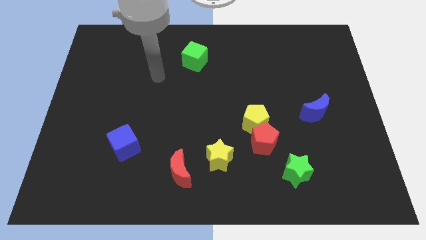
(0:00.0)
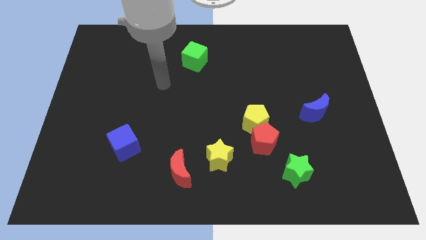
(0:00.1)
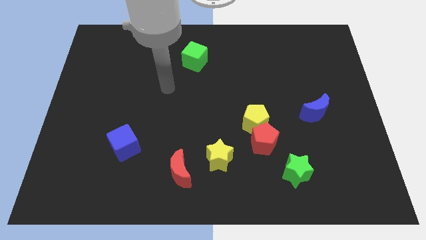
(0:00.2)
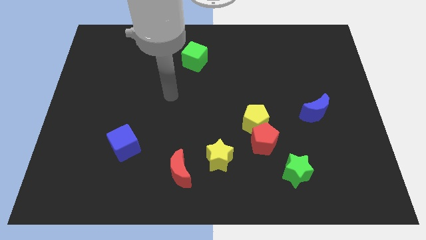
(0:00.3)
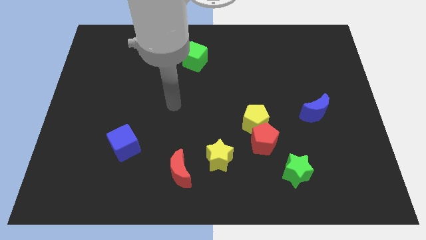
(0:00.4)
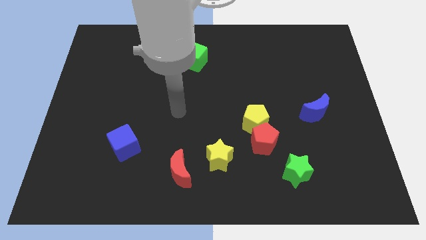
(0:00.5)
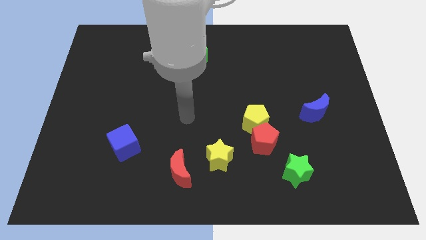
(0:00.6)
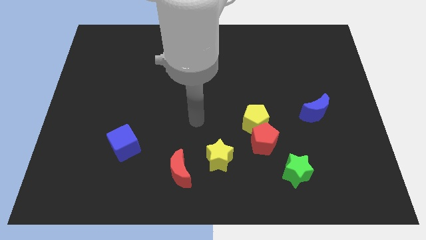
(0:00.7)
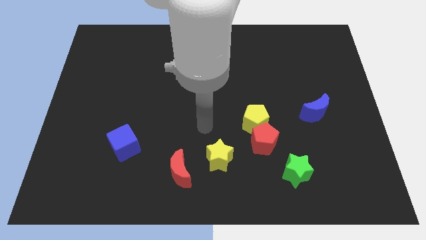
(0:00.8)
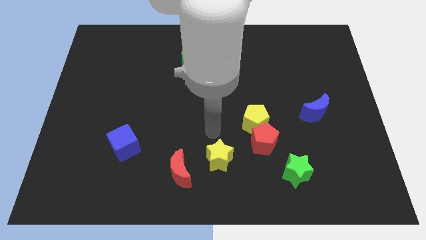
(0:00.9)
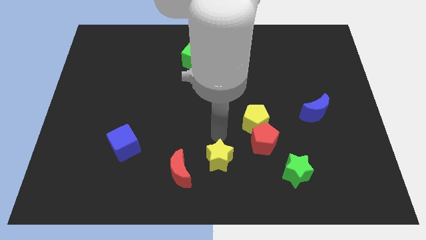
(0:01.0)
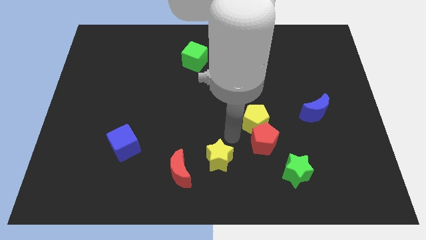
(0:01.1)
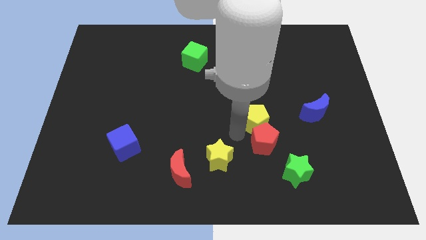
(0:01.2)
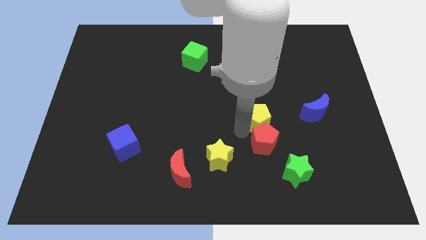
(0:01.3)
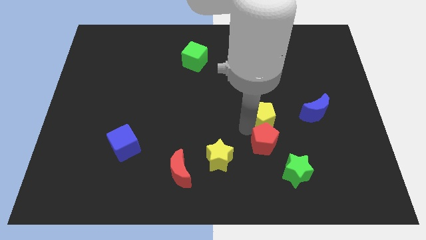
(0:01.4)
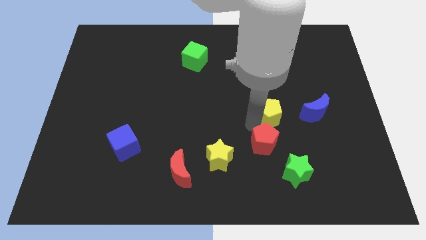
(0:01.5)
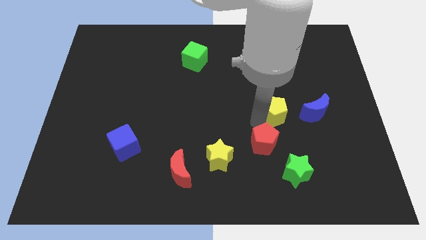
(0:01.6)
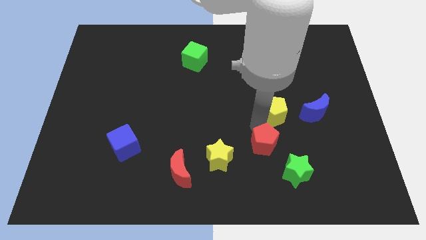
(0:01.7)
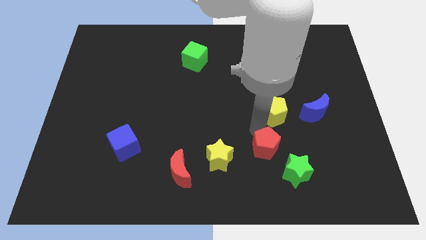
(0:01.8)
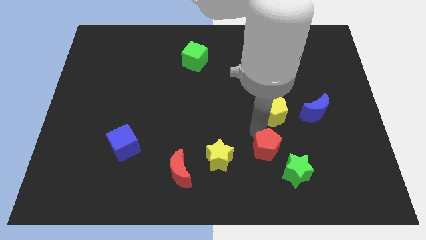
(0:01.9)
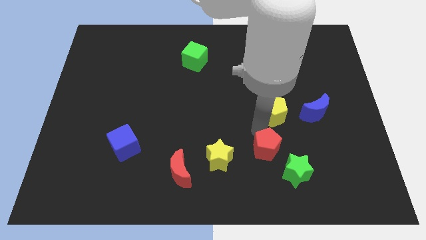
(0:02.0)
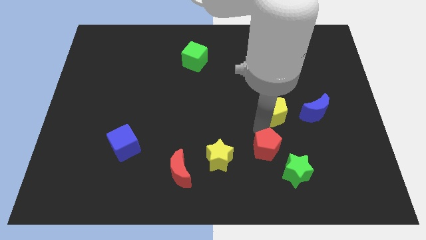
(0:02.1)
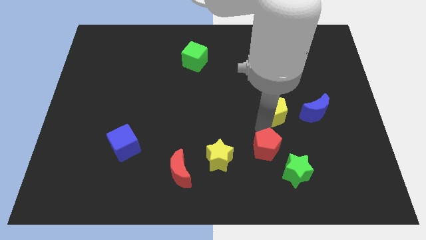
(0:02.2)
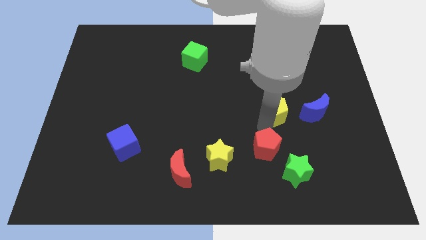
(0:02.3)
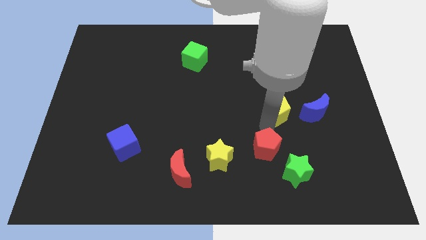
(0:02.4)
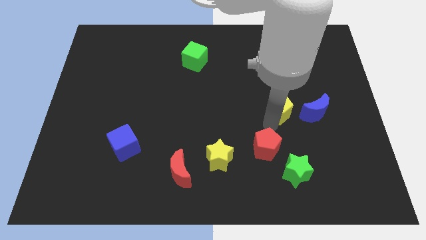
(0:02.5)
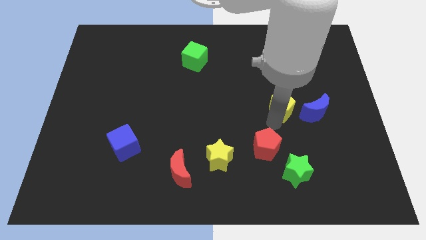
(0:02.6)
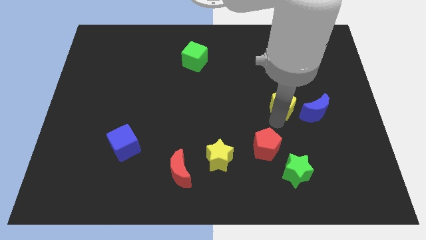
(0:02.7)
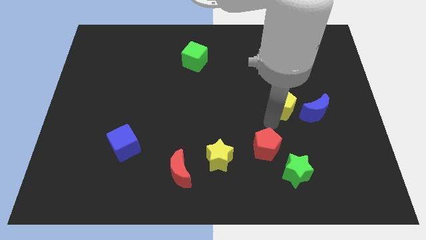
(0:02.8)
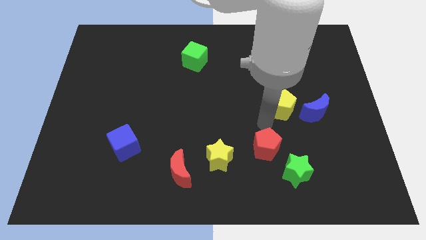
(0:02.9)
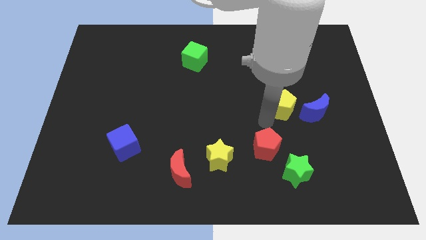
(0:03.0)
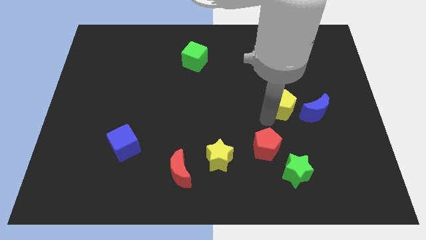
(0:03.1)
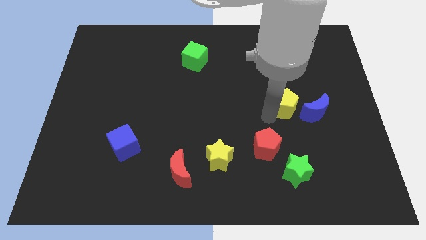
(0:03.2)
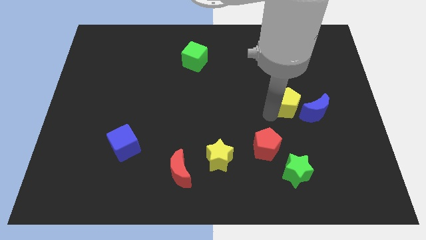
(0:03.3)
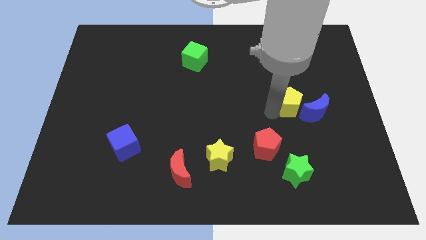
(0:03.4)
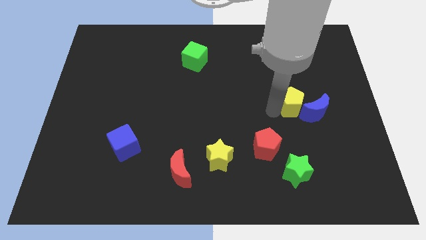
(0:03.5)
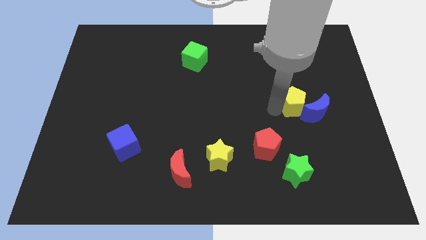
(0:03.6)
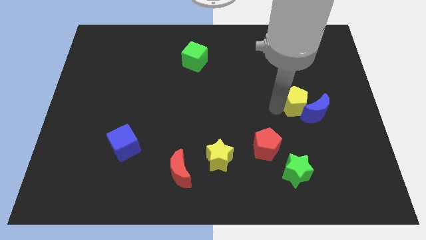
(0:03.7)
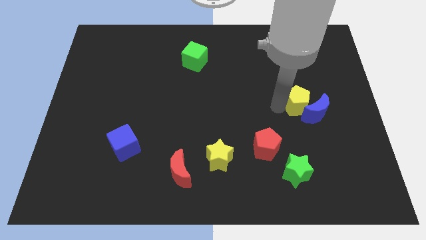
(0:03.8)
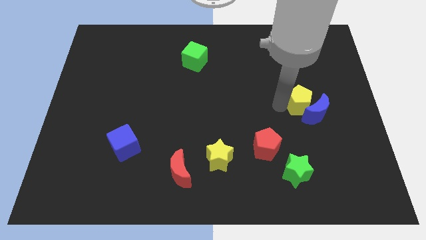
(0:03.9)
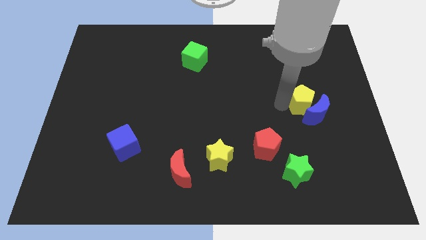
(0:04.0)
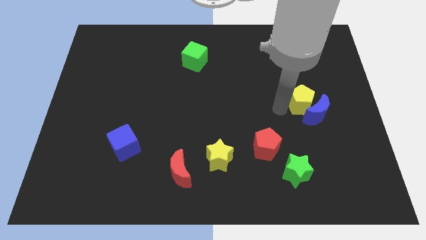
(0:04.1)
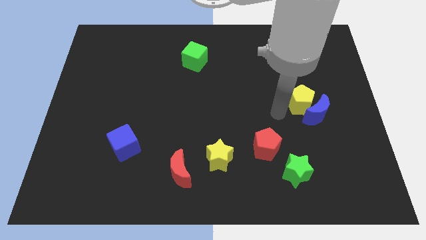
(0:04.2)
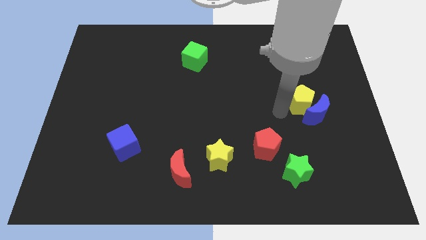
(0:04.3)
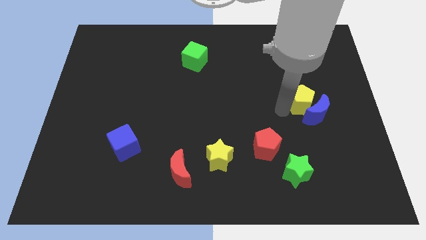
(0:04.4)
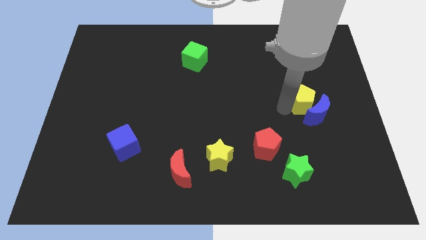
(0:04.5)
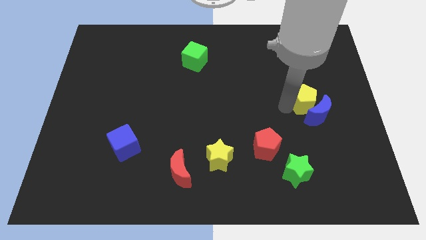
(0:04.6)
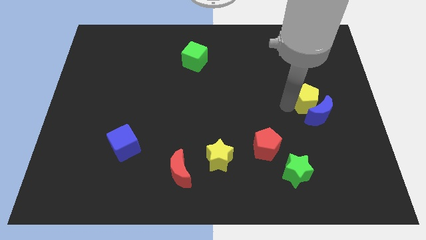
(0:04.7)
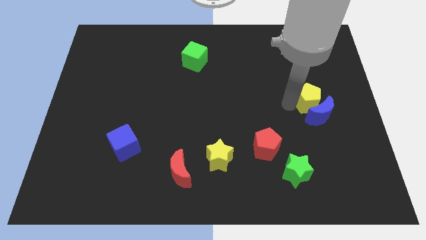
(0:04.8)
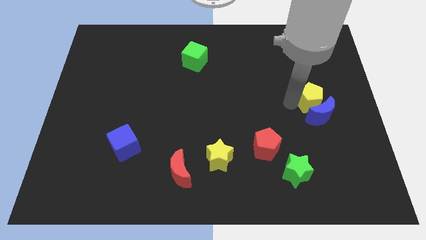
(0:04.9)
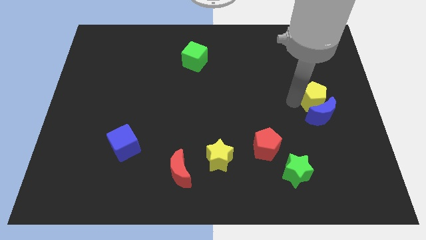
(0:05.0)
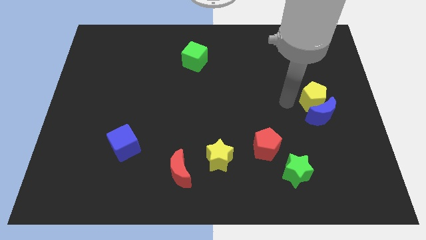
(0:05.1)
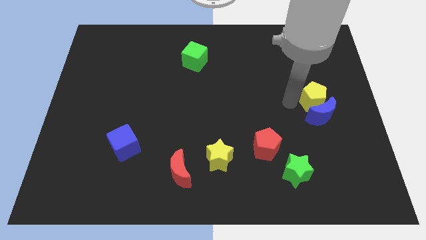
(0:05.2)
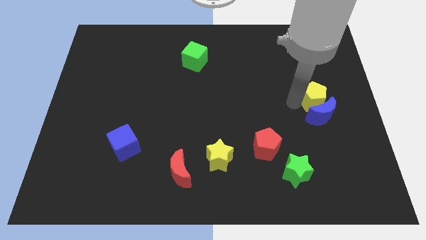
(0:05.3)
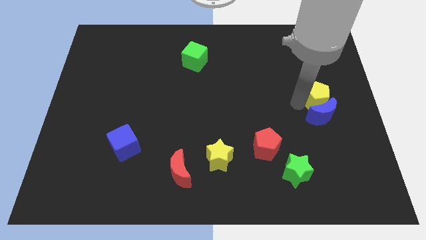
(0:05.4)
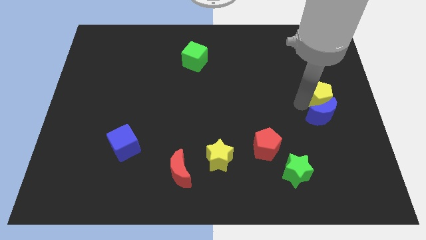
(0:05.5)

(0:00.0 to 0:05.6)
push the yellow pentagon to the right side

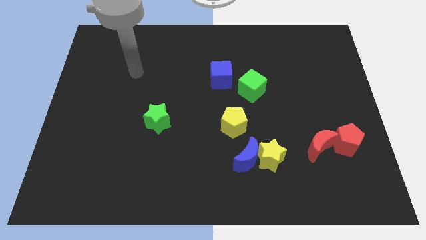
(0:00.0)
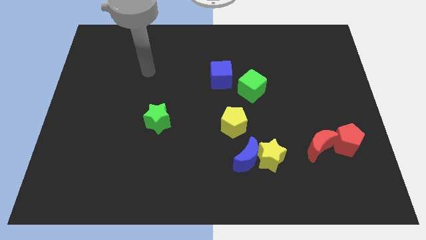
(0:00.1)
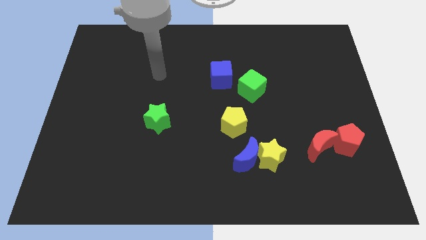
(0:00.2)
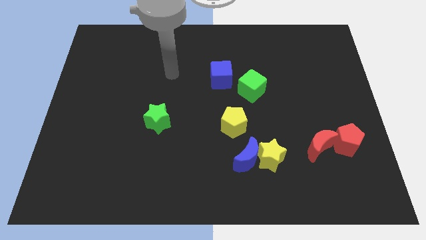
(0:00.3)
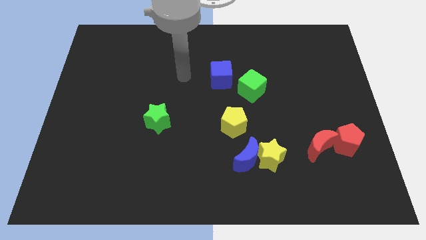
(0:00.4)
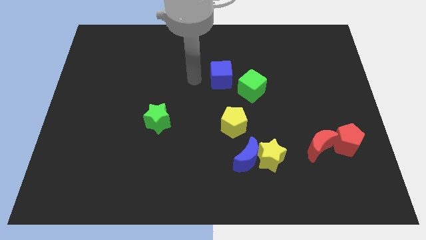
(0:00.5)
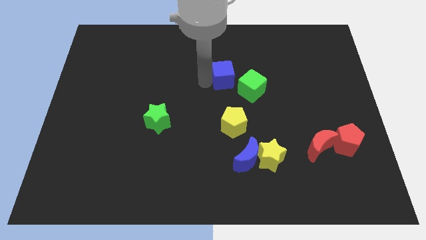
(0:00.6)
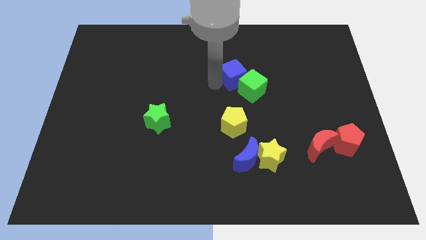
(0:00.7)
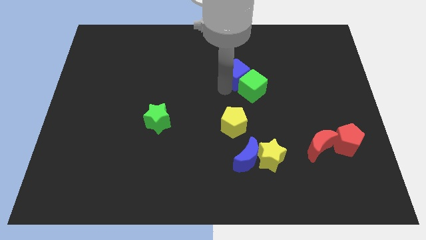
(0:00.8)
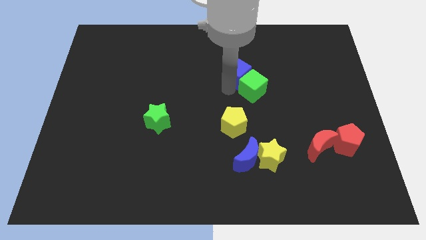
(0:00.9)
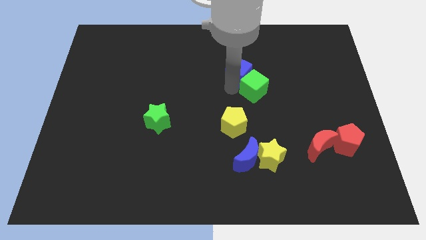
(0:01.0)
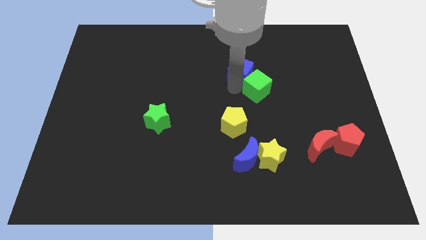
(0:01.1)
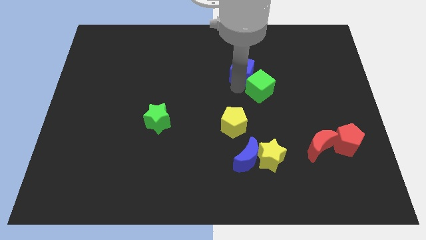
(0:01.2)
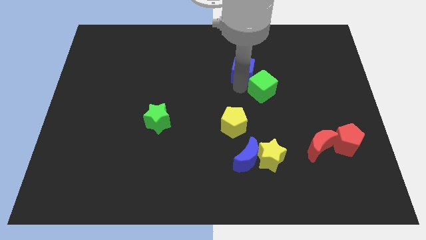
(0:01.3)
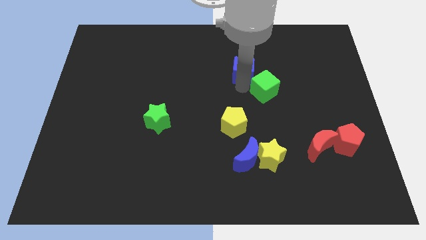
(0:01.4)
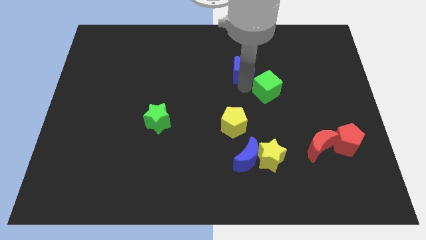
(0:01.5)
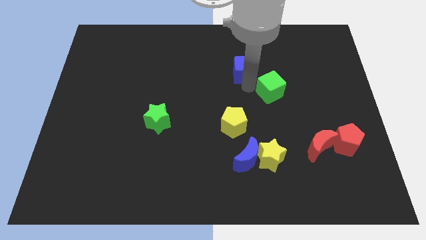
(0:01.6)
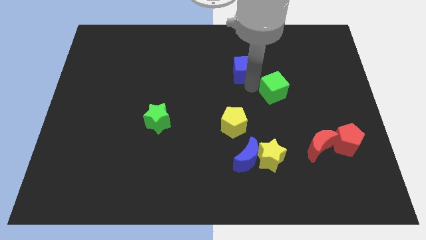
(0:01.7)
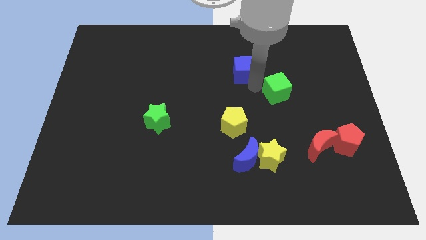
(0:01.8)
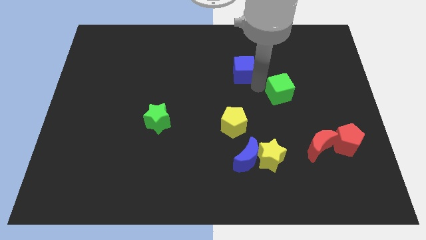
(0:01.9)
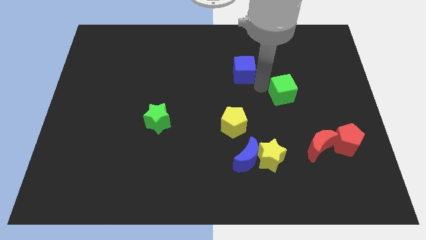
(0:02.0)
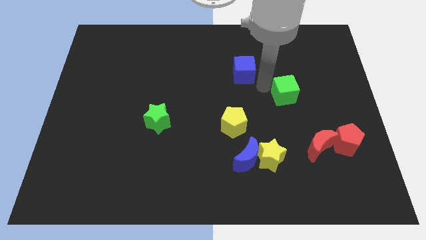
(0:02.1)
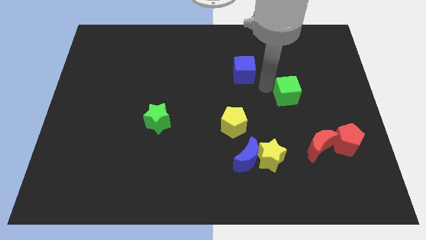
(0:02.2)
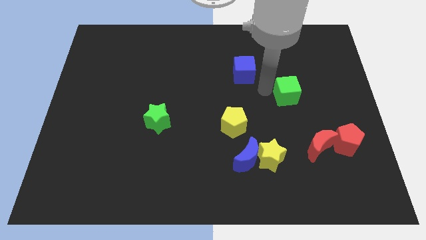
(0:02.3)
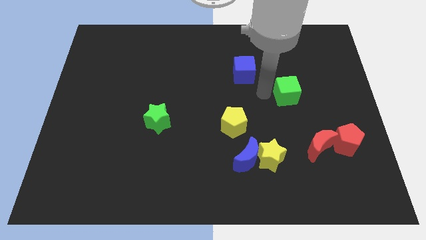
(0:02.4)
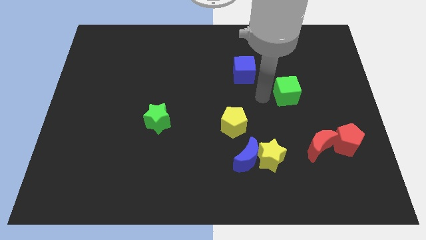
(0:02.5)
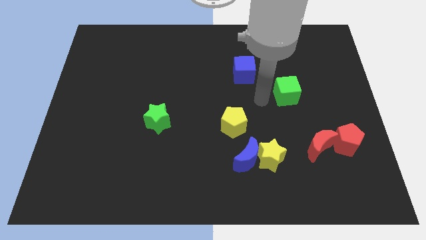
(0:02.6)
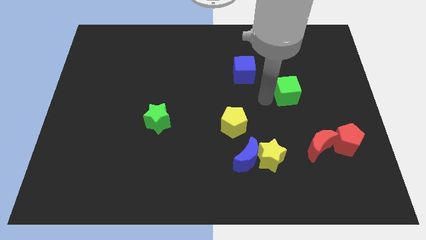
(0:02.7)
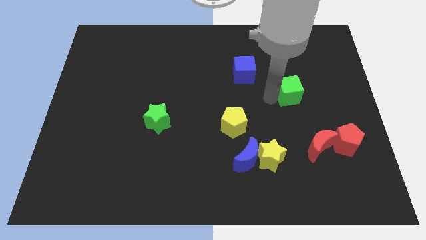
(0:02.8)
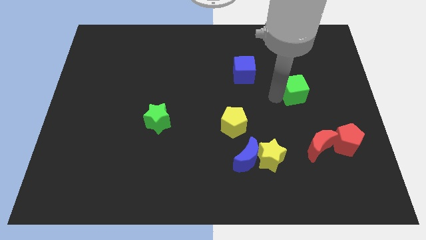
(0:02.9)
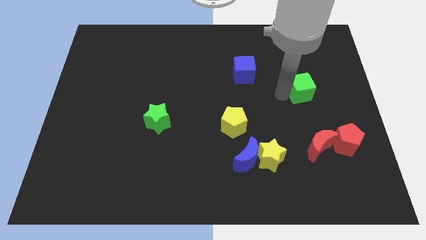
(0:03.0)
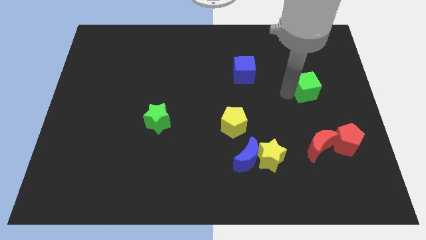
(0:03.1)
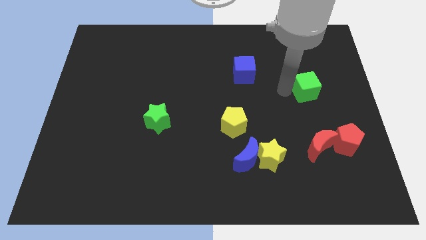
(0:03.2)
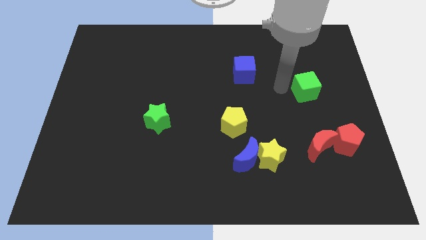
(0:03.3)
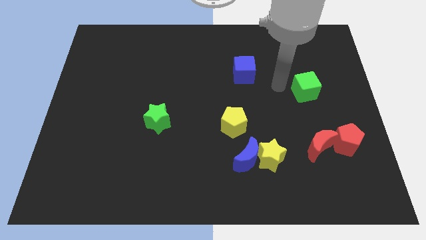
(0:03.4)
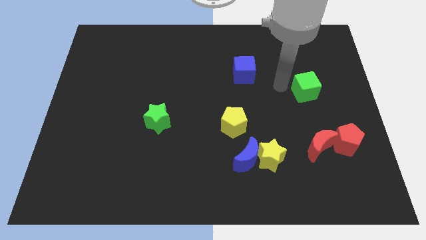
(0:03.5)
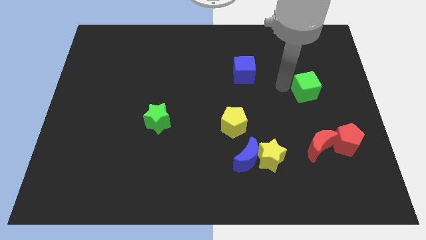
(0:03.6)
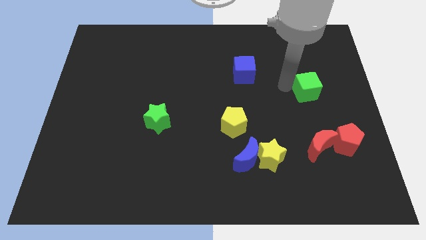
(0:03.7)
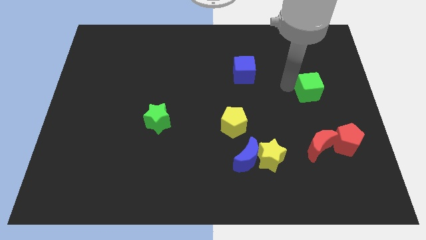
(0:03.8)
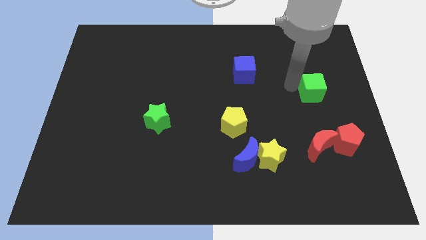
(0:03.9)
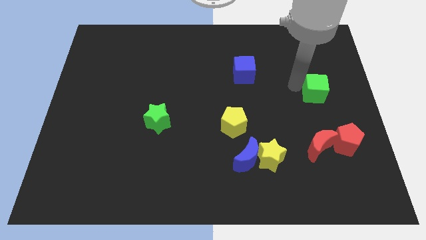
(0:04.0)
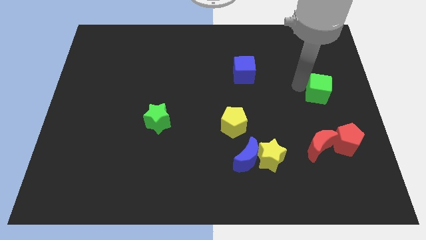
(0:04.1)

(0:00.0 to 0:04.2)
slide the green cube to the right side
